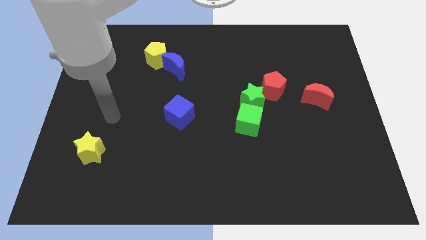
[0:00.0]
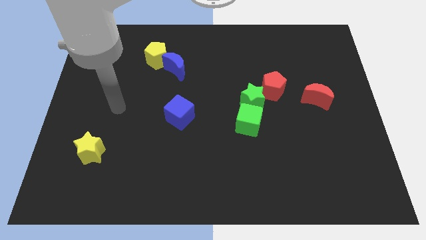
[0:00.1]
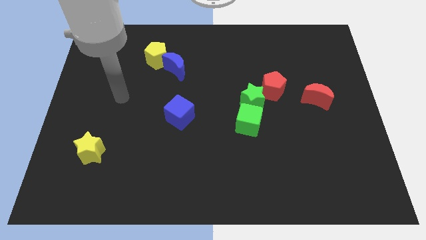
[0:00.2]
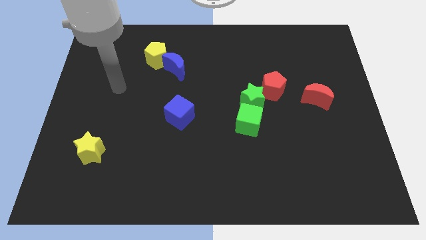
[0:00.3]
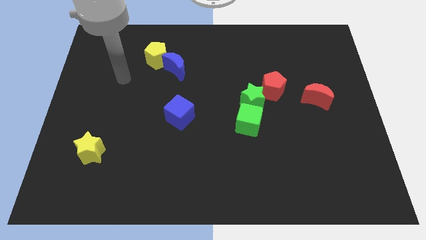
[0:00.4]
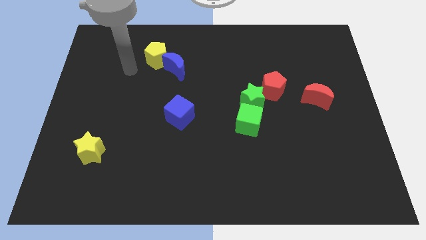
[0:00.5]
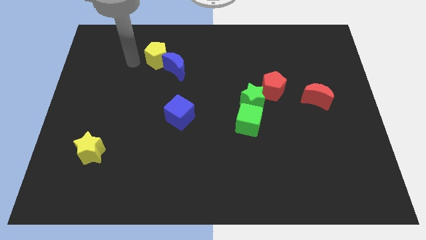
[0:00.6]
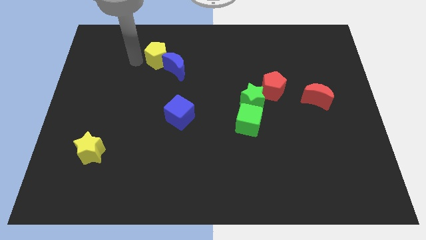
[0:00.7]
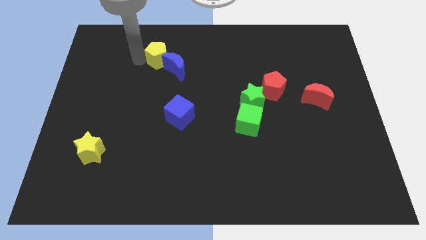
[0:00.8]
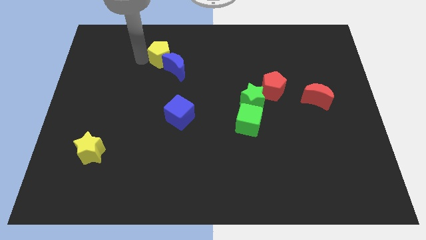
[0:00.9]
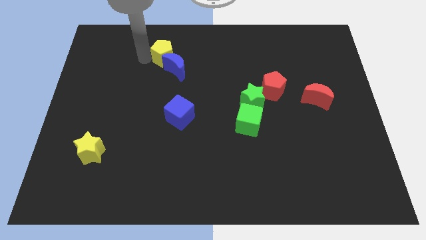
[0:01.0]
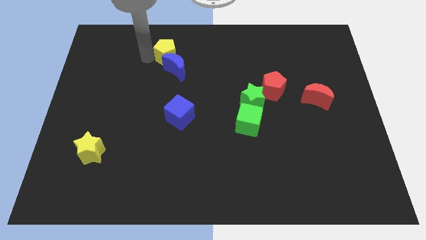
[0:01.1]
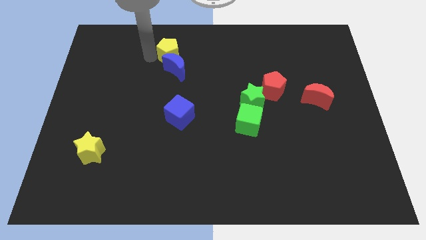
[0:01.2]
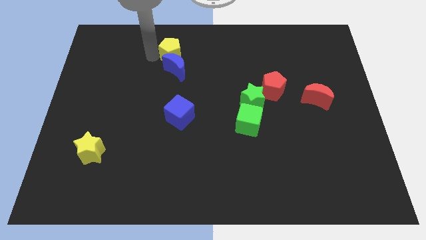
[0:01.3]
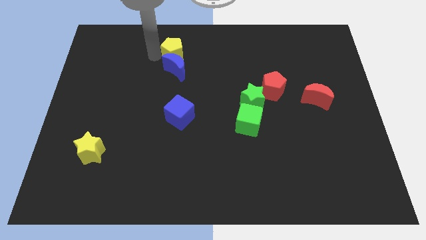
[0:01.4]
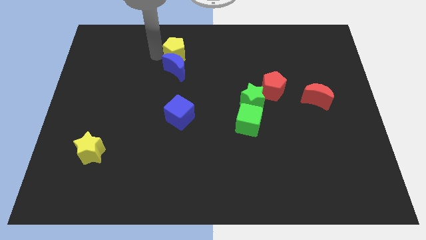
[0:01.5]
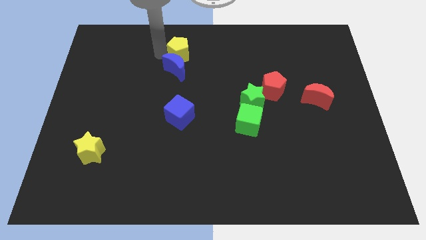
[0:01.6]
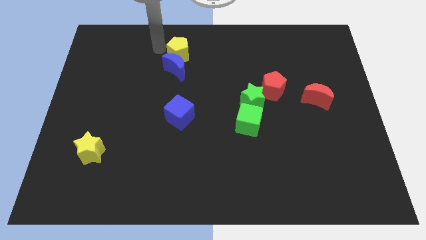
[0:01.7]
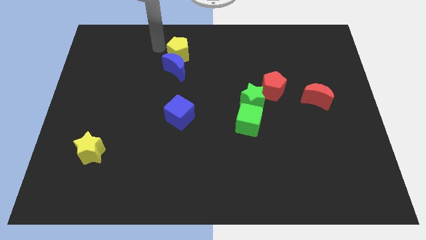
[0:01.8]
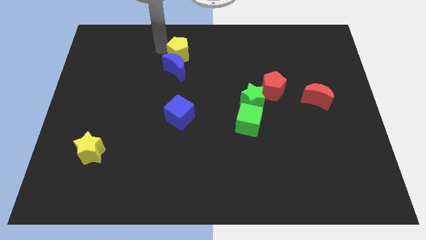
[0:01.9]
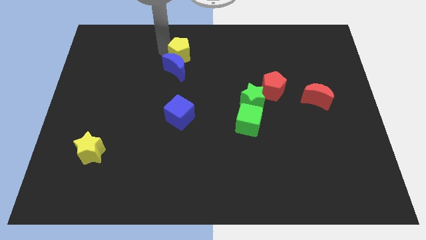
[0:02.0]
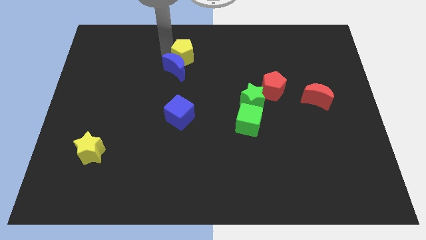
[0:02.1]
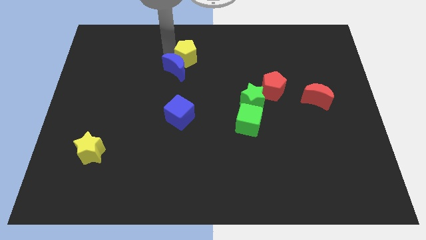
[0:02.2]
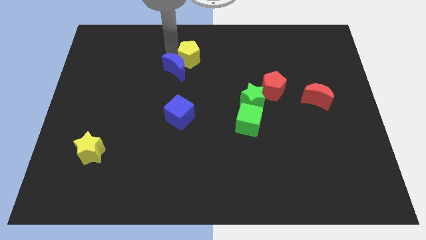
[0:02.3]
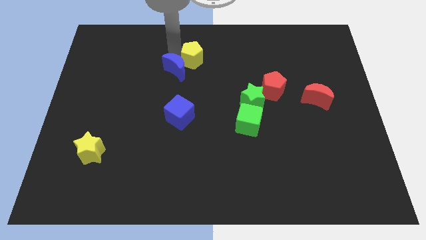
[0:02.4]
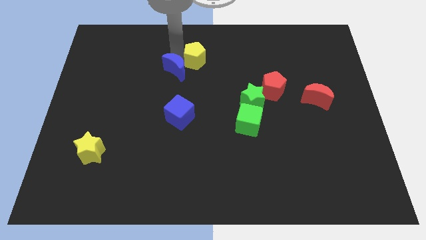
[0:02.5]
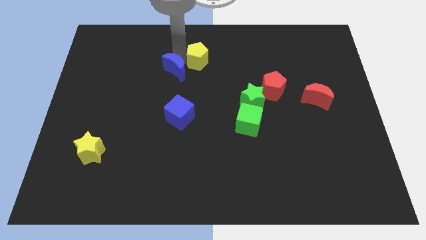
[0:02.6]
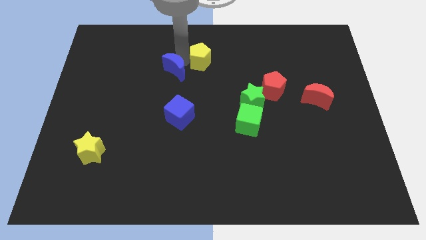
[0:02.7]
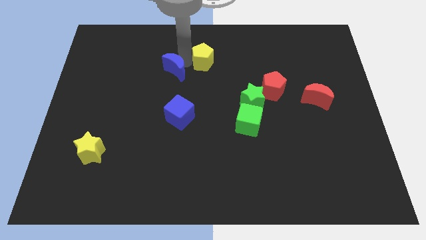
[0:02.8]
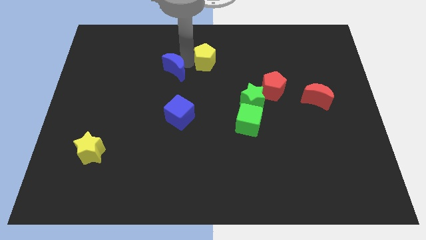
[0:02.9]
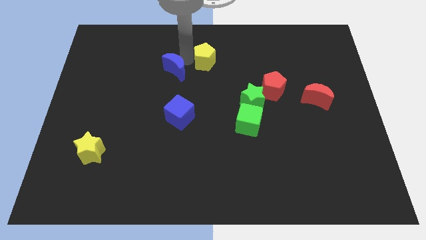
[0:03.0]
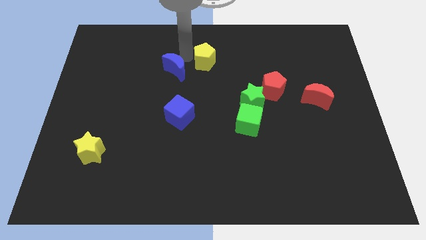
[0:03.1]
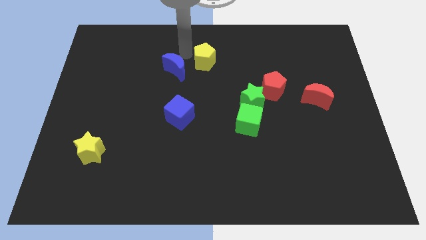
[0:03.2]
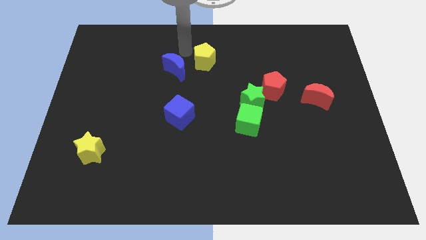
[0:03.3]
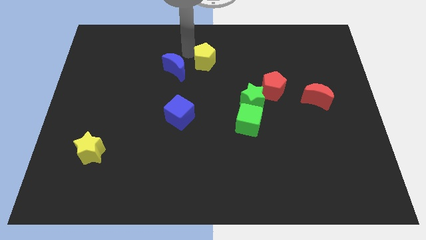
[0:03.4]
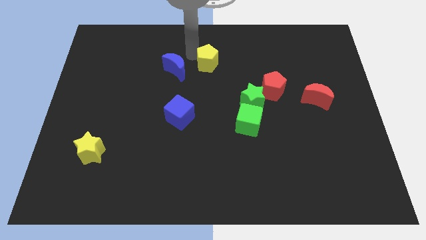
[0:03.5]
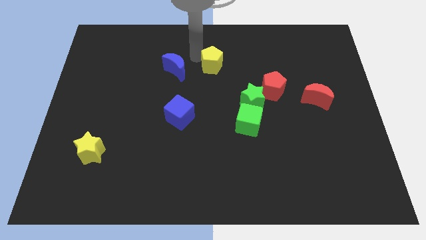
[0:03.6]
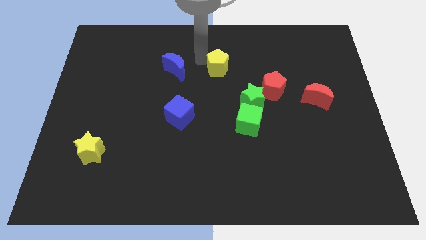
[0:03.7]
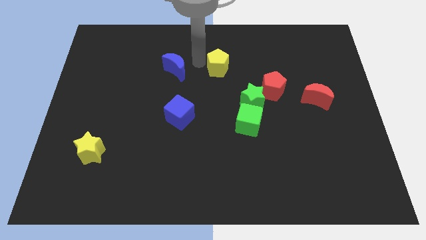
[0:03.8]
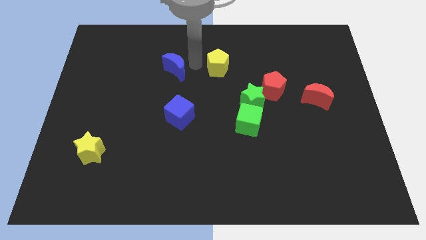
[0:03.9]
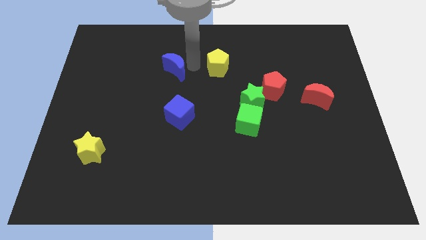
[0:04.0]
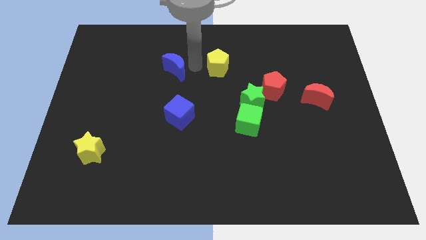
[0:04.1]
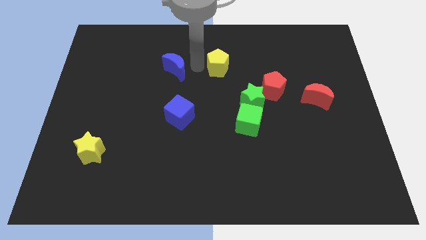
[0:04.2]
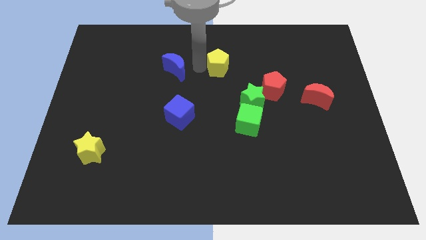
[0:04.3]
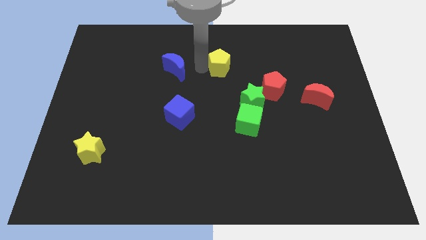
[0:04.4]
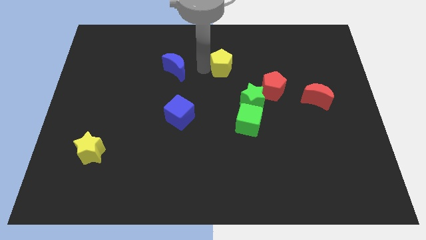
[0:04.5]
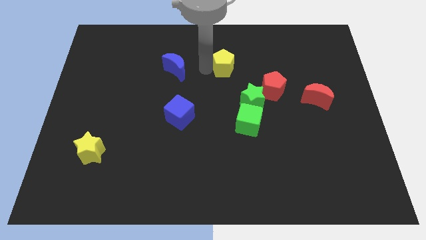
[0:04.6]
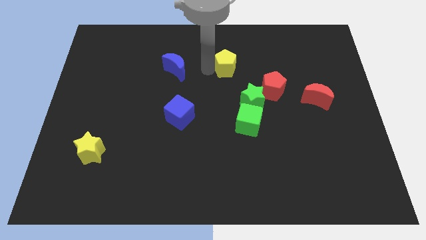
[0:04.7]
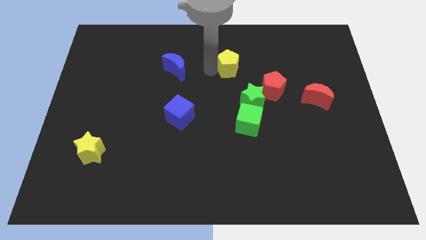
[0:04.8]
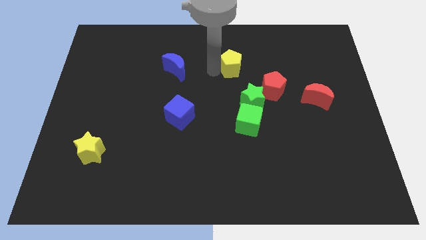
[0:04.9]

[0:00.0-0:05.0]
put the yellow pentagon to the top side of the green star

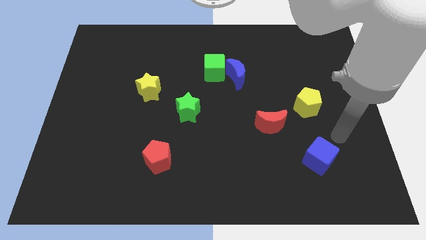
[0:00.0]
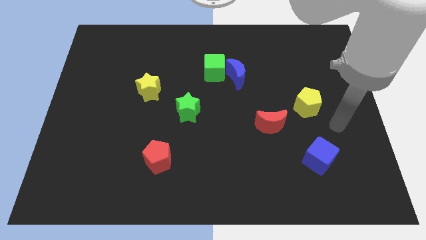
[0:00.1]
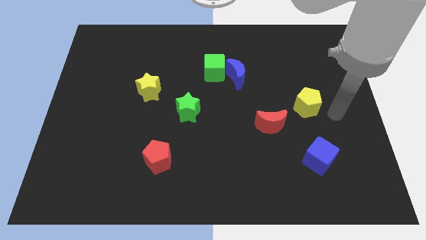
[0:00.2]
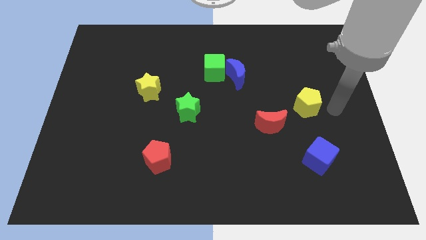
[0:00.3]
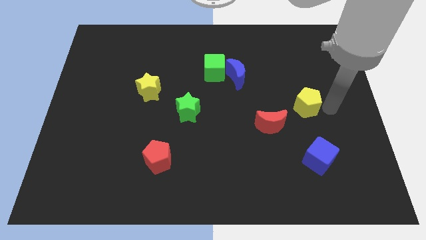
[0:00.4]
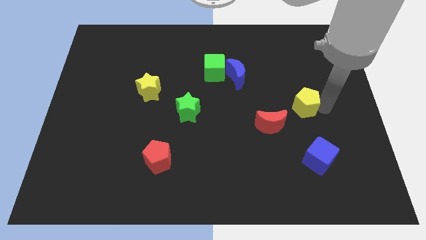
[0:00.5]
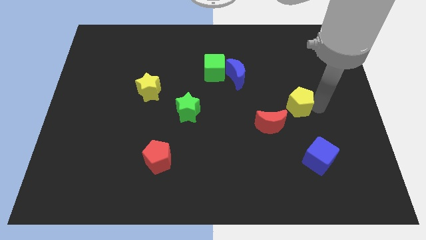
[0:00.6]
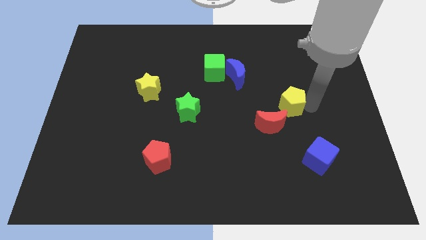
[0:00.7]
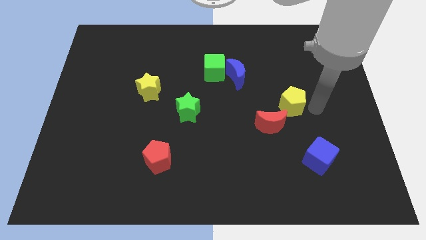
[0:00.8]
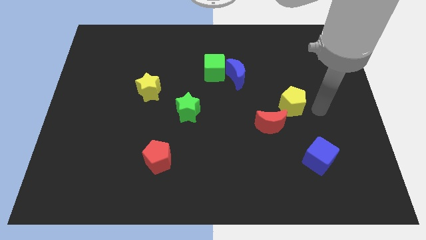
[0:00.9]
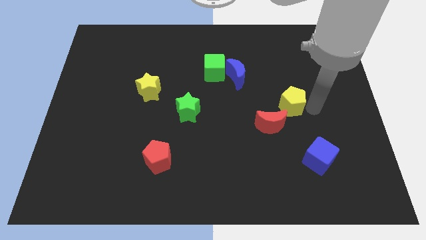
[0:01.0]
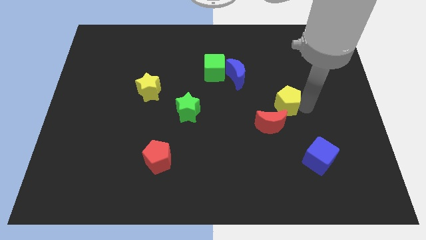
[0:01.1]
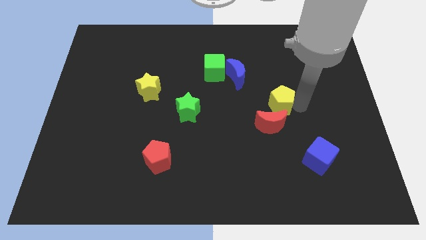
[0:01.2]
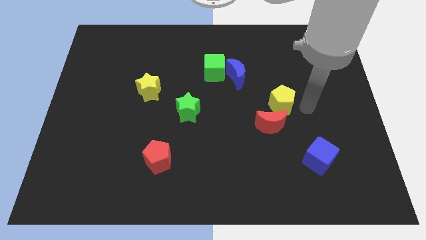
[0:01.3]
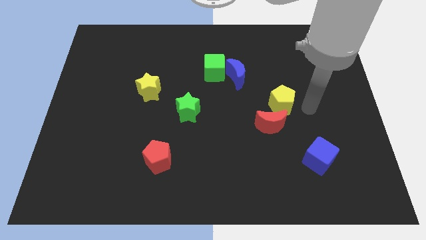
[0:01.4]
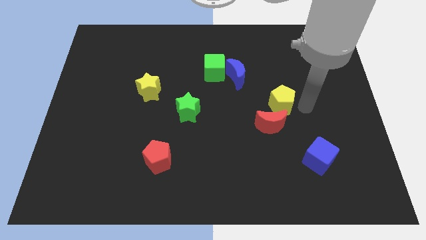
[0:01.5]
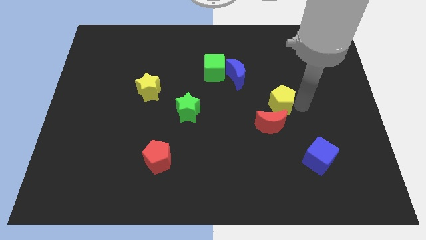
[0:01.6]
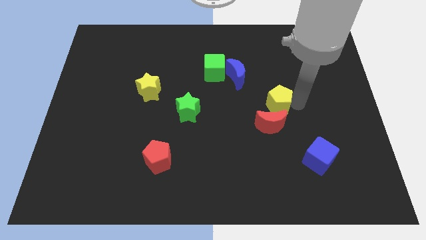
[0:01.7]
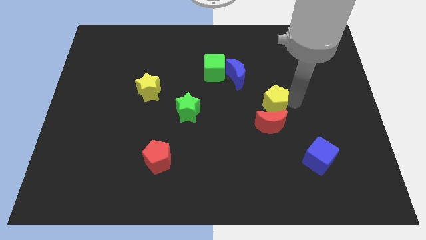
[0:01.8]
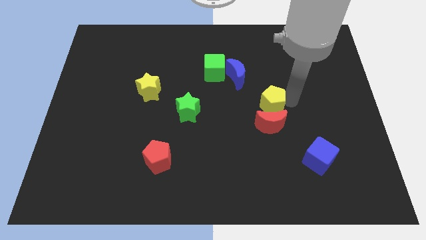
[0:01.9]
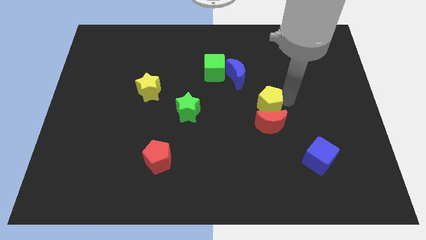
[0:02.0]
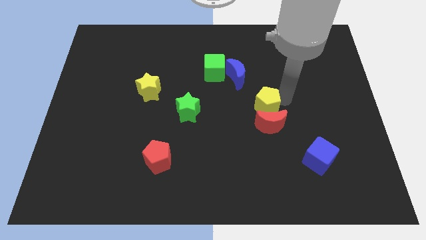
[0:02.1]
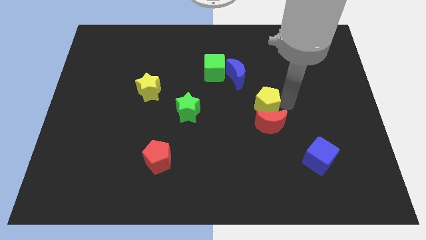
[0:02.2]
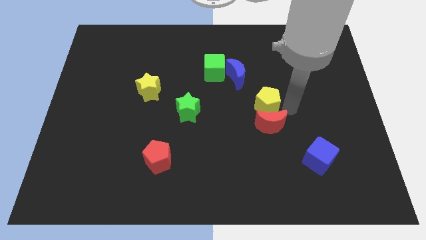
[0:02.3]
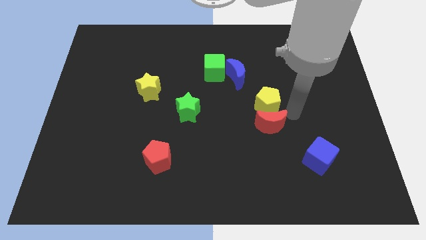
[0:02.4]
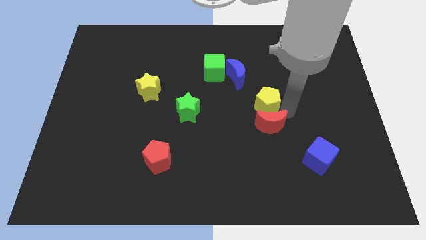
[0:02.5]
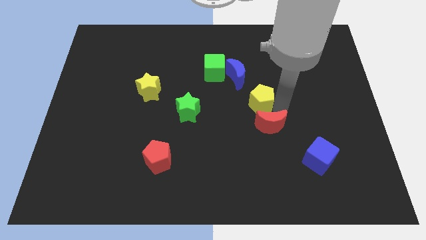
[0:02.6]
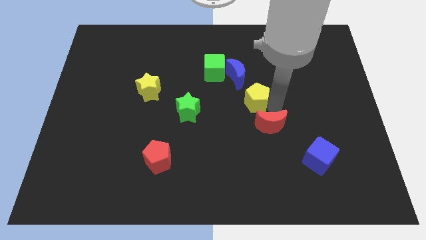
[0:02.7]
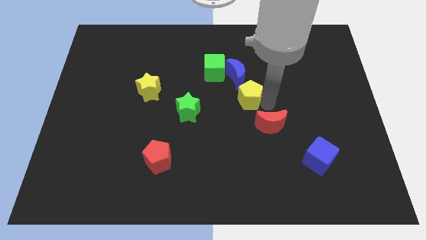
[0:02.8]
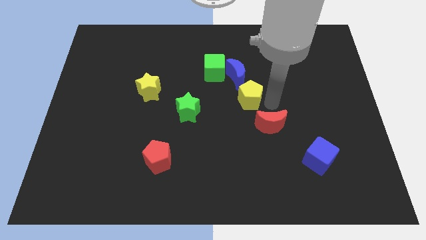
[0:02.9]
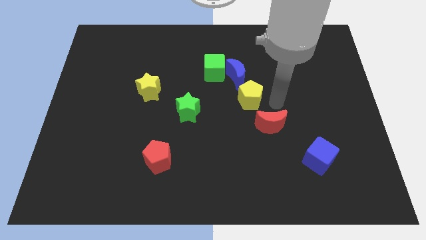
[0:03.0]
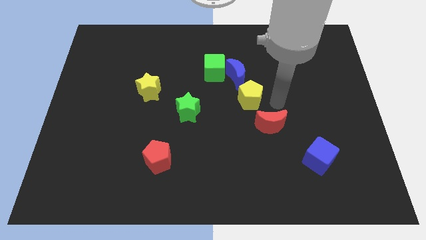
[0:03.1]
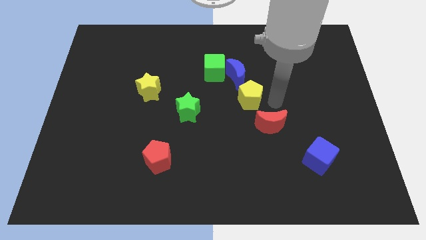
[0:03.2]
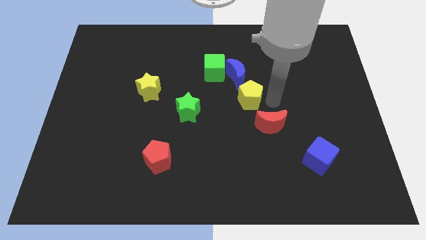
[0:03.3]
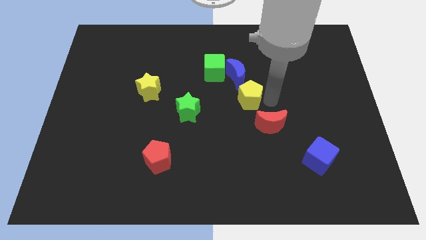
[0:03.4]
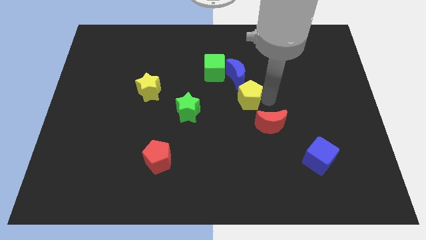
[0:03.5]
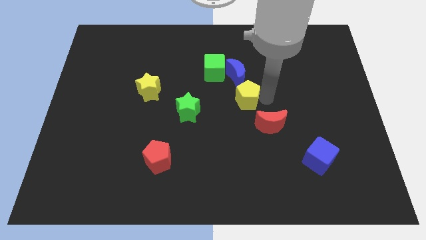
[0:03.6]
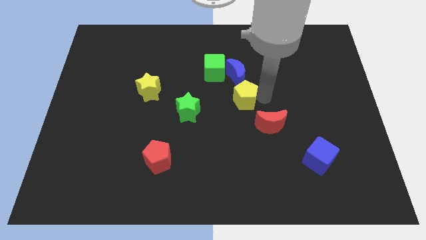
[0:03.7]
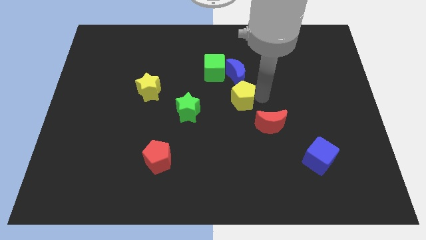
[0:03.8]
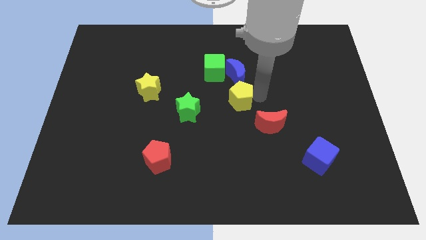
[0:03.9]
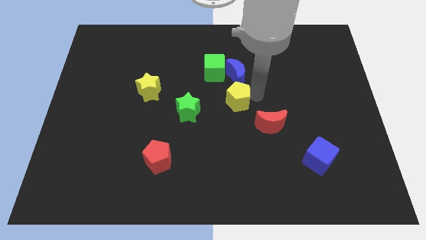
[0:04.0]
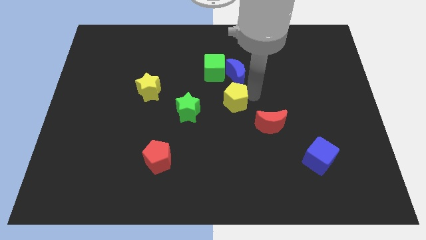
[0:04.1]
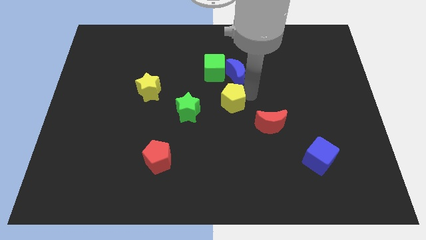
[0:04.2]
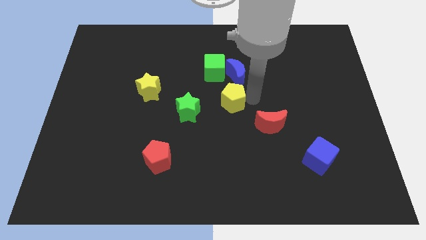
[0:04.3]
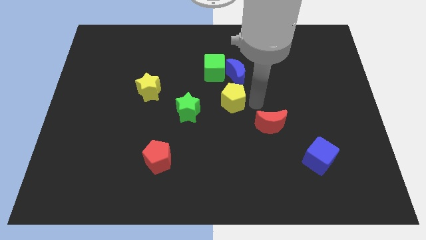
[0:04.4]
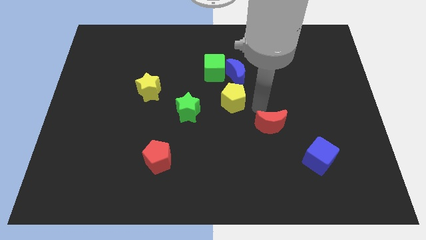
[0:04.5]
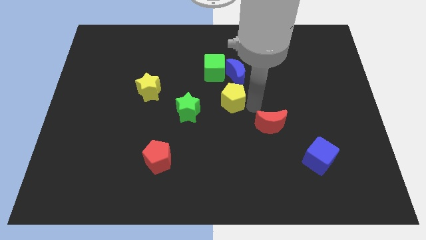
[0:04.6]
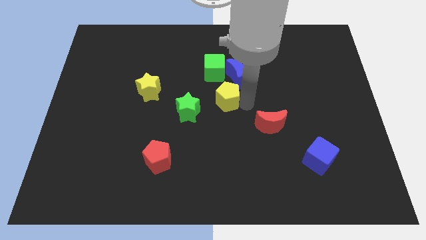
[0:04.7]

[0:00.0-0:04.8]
push the yellow pentagon to the top right side of the green star
